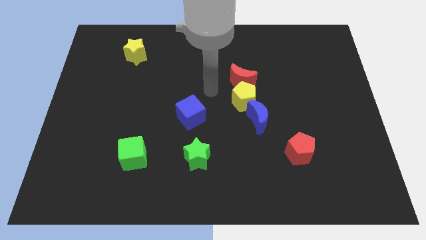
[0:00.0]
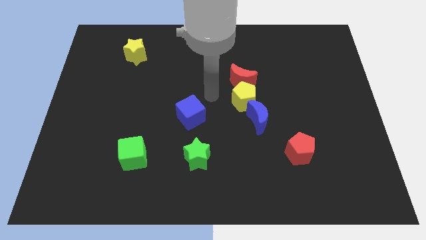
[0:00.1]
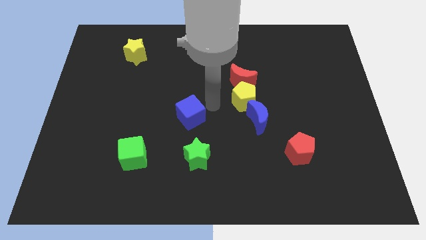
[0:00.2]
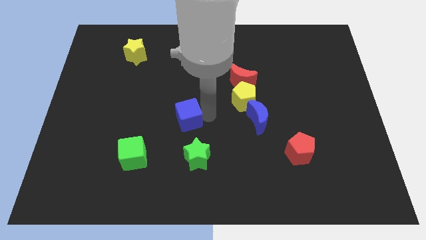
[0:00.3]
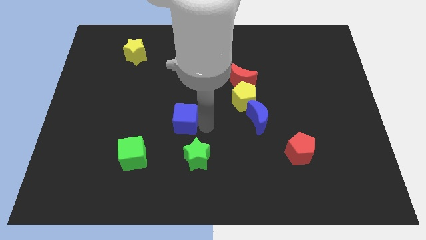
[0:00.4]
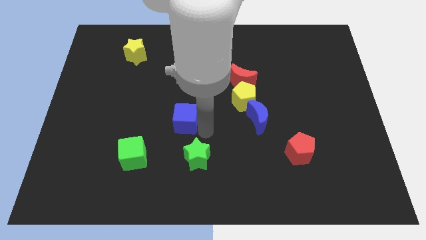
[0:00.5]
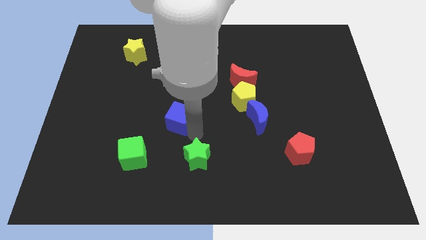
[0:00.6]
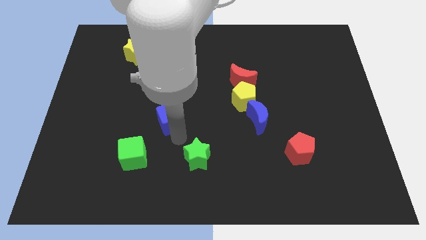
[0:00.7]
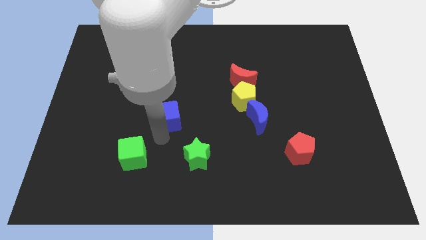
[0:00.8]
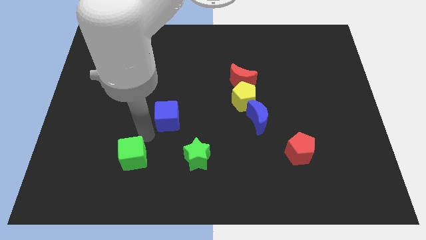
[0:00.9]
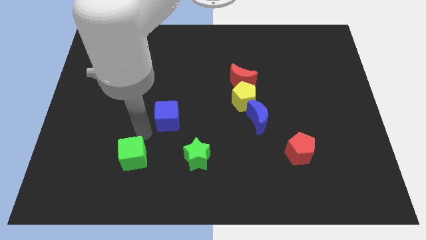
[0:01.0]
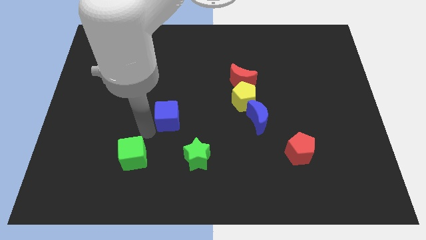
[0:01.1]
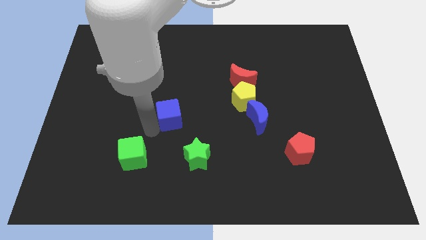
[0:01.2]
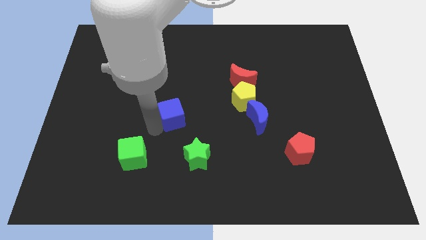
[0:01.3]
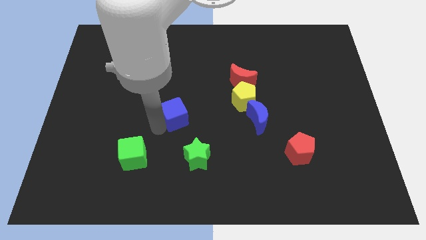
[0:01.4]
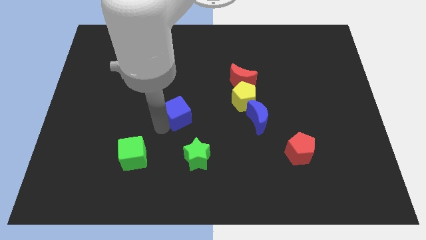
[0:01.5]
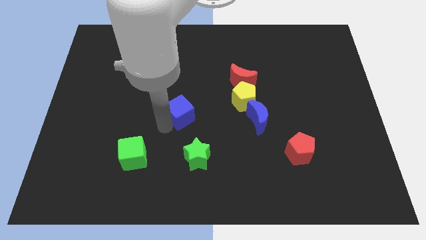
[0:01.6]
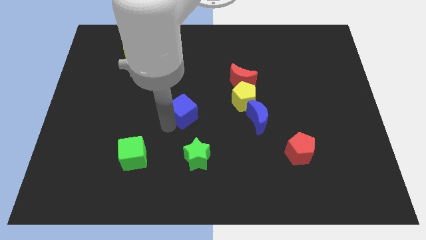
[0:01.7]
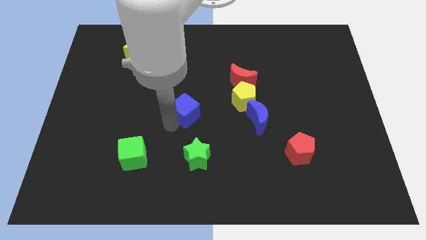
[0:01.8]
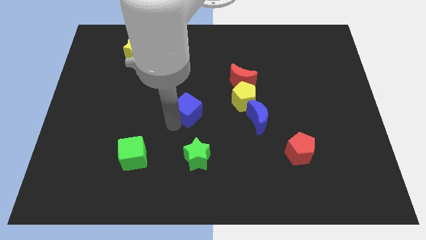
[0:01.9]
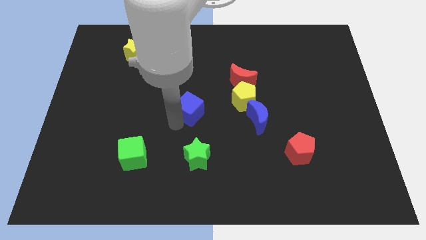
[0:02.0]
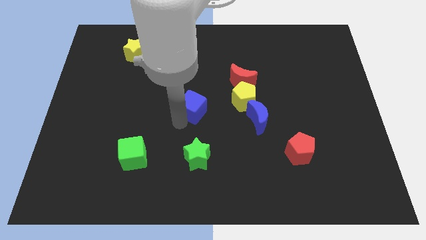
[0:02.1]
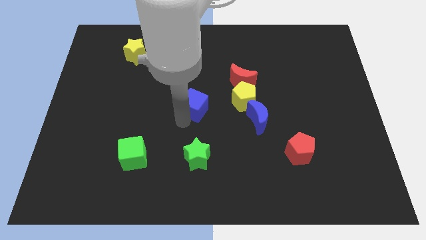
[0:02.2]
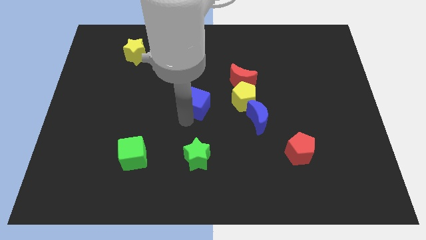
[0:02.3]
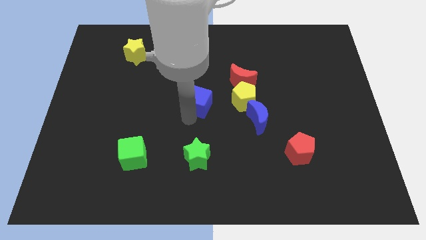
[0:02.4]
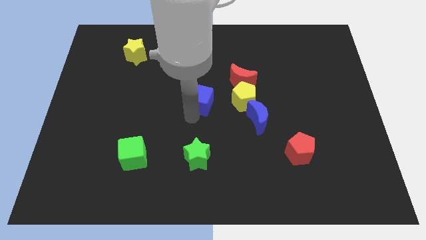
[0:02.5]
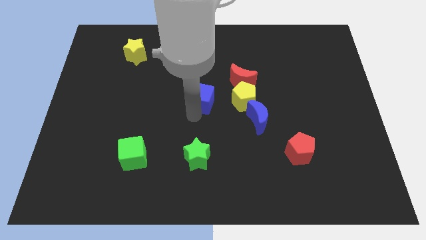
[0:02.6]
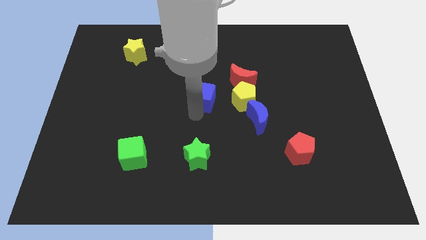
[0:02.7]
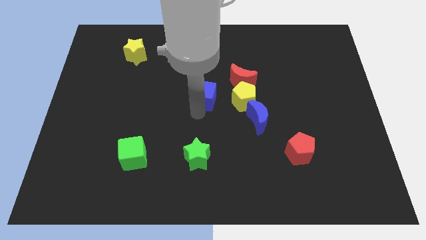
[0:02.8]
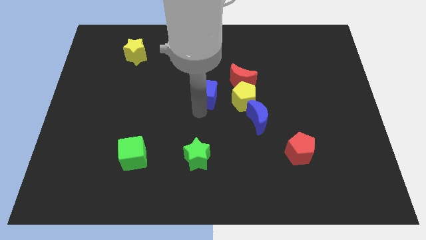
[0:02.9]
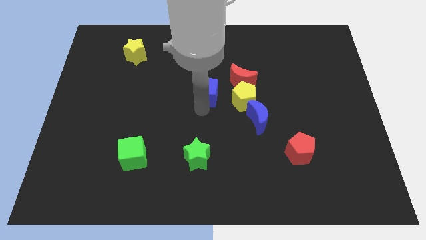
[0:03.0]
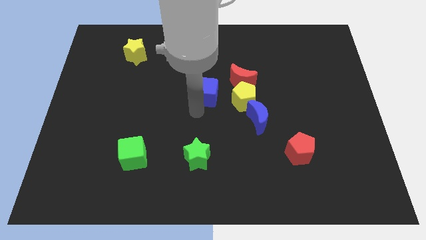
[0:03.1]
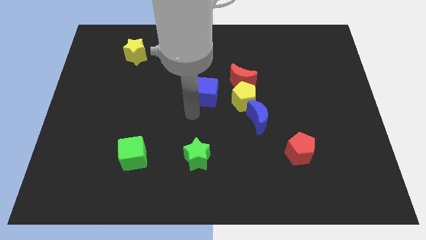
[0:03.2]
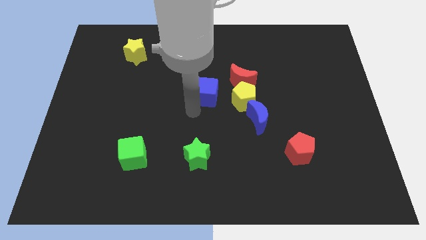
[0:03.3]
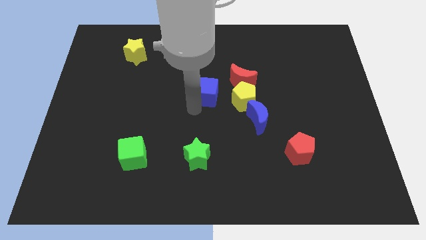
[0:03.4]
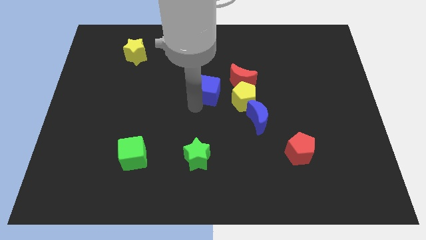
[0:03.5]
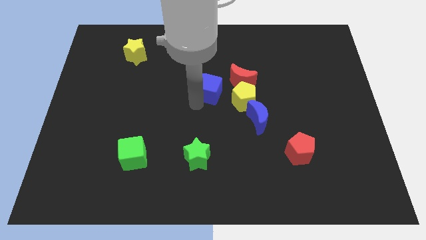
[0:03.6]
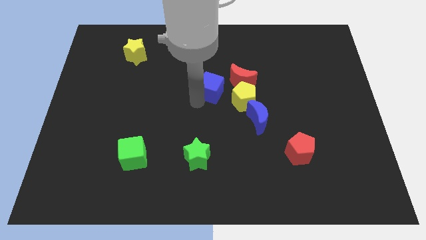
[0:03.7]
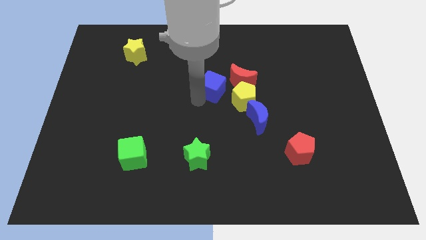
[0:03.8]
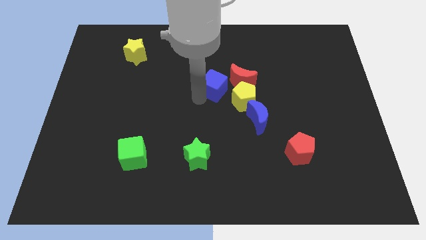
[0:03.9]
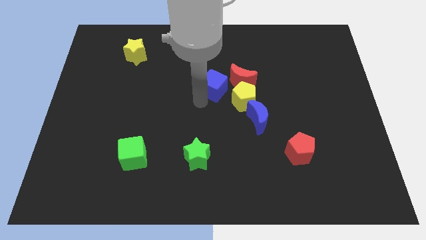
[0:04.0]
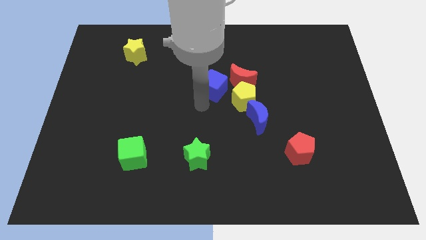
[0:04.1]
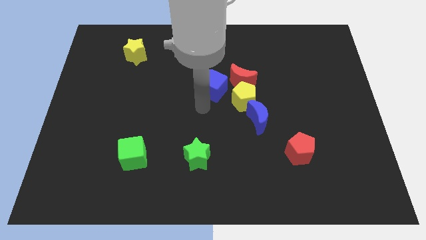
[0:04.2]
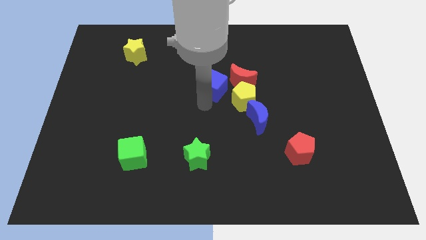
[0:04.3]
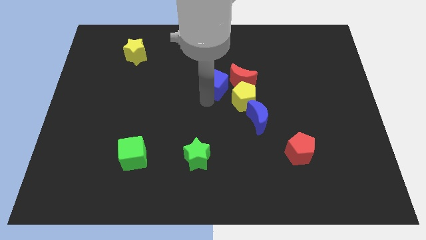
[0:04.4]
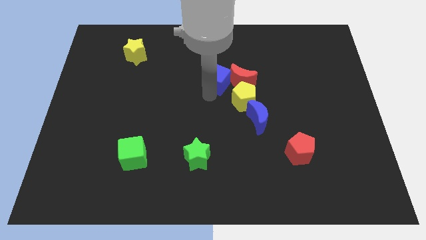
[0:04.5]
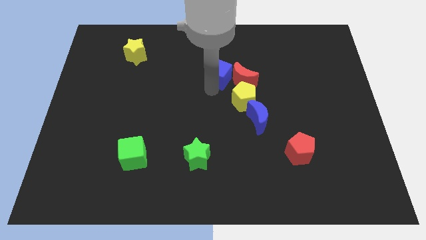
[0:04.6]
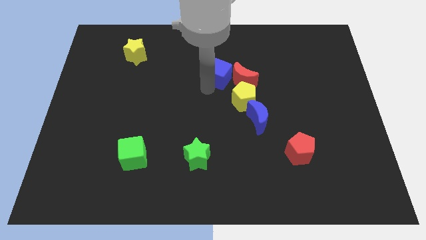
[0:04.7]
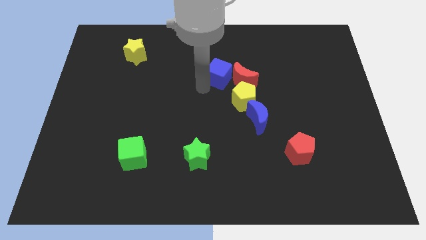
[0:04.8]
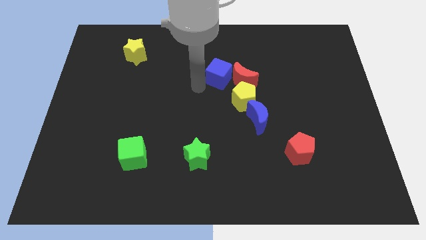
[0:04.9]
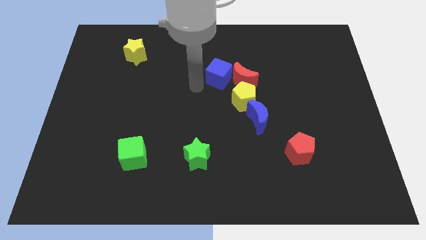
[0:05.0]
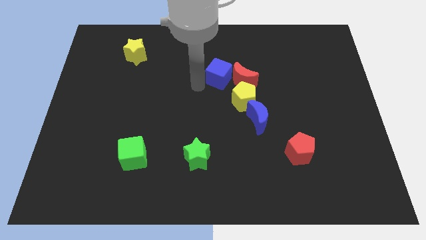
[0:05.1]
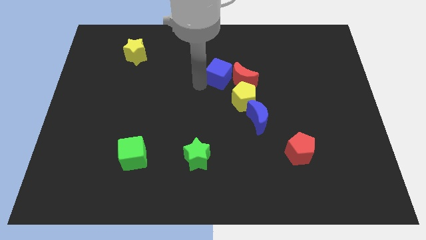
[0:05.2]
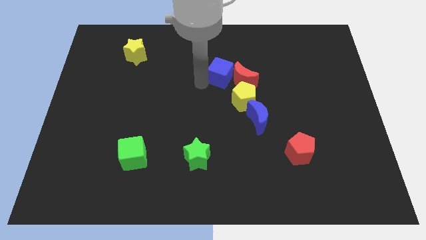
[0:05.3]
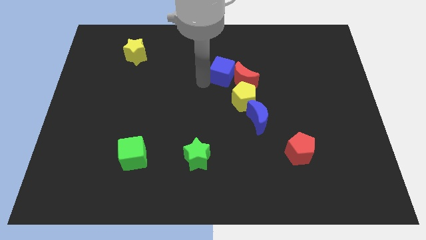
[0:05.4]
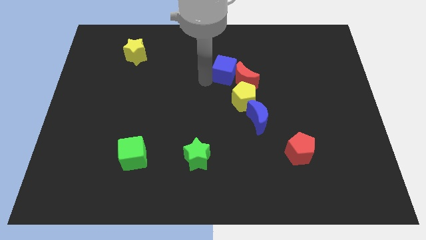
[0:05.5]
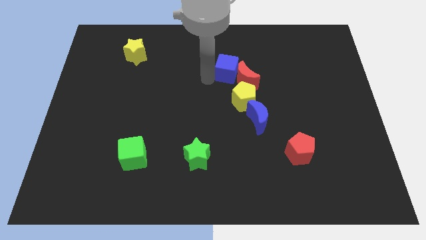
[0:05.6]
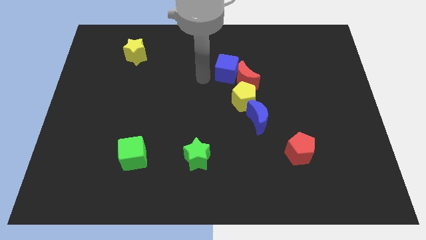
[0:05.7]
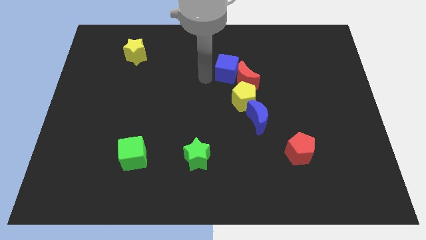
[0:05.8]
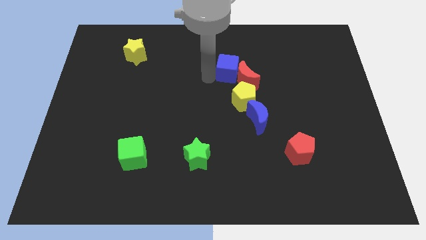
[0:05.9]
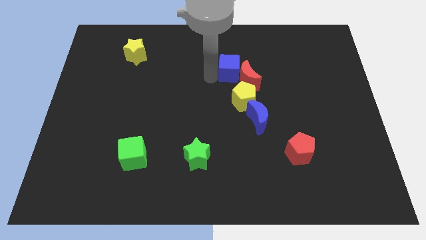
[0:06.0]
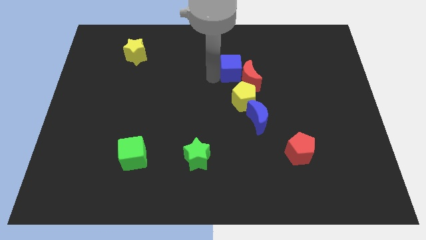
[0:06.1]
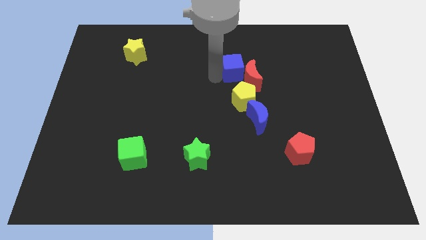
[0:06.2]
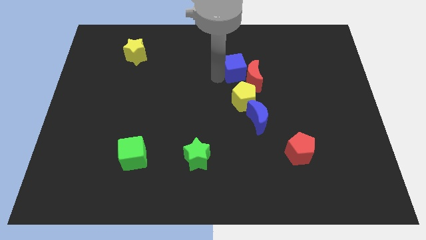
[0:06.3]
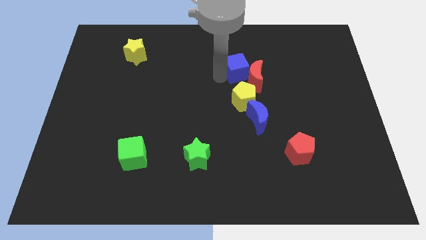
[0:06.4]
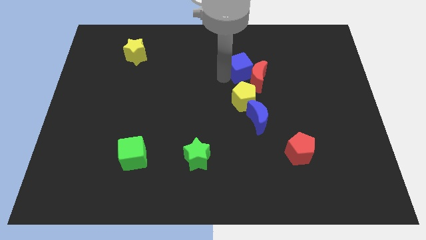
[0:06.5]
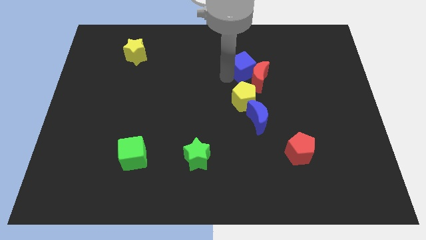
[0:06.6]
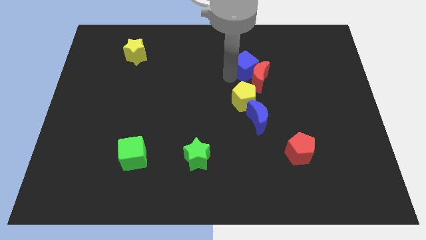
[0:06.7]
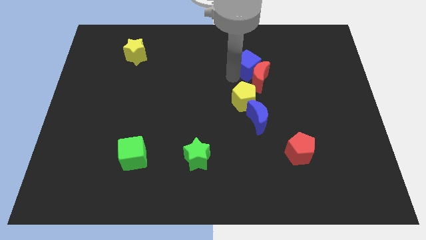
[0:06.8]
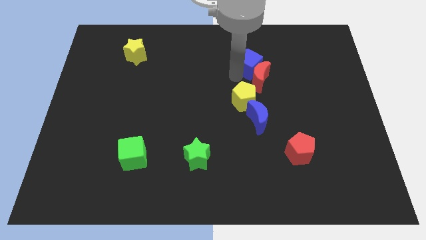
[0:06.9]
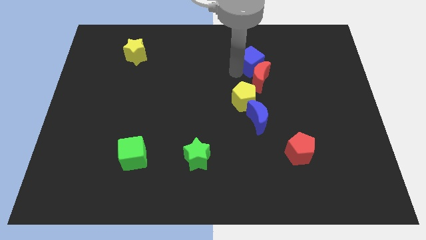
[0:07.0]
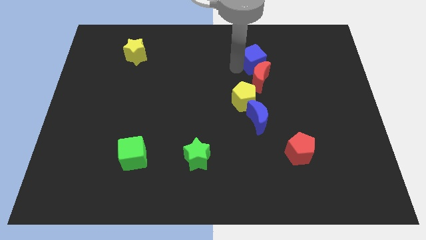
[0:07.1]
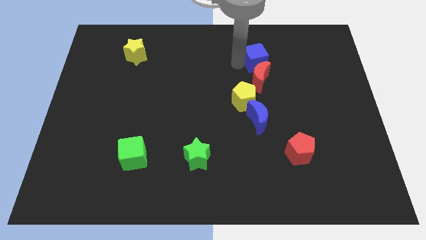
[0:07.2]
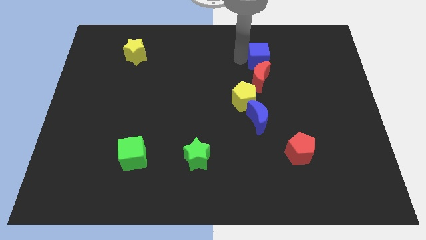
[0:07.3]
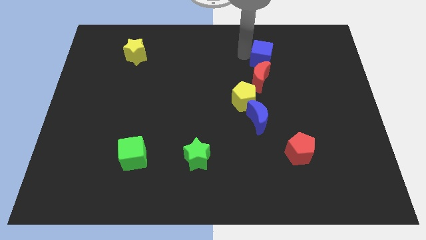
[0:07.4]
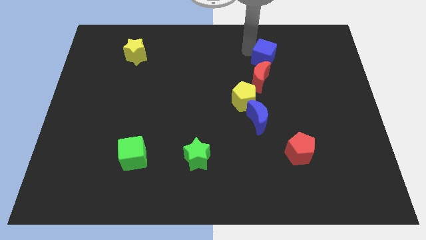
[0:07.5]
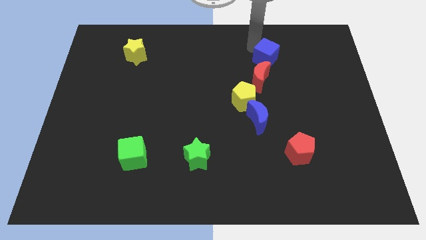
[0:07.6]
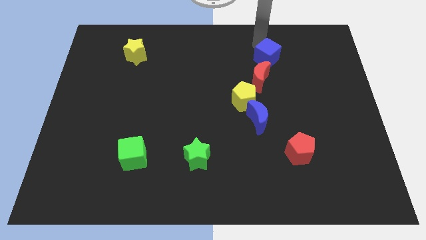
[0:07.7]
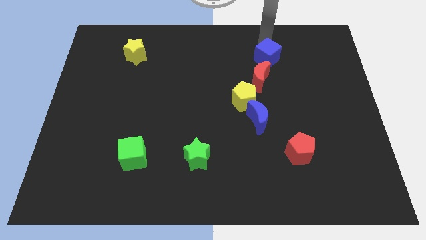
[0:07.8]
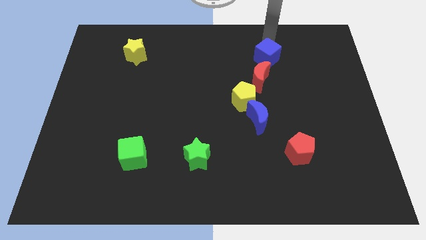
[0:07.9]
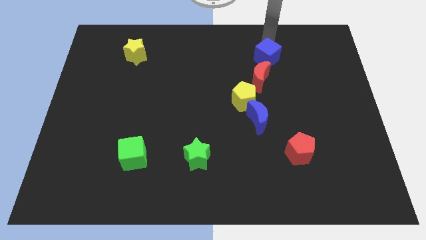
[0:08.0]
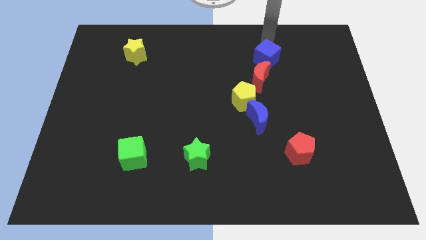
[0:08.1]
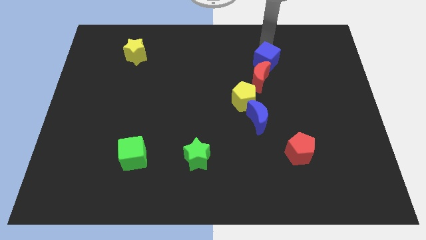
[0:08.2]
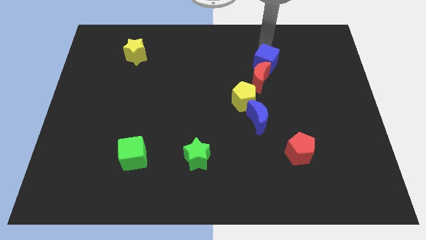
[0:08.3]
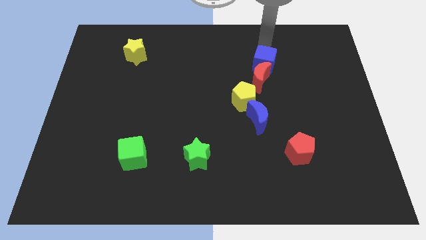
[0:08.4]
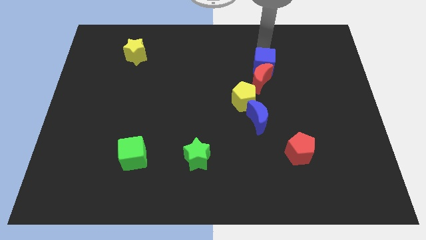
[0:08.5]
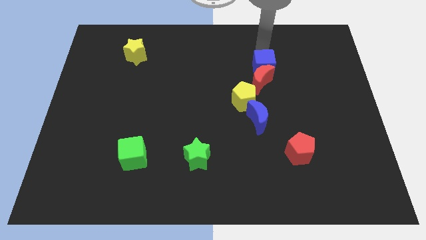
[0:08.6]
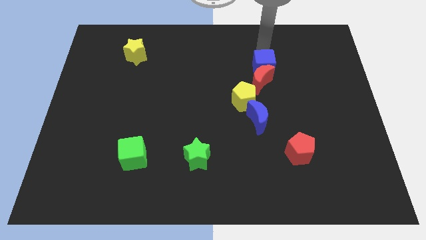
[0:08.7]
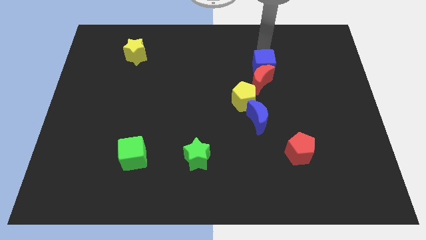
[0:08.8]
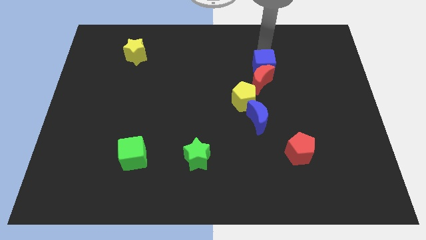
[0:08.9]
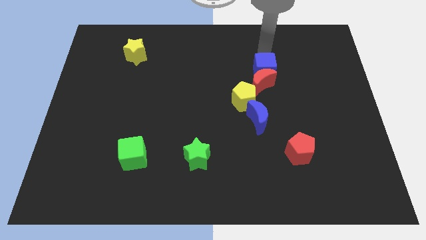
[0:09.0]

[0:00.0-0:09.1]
put the blue cube diagonally up and to the right of the yellow pentagon
